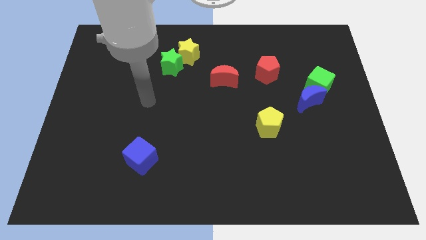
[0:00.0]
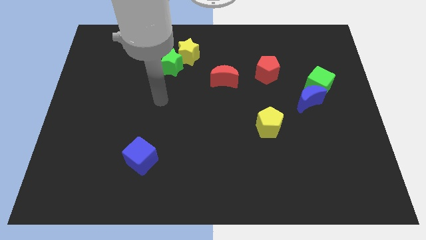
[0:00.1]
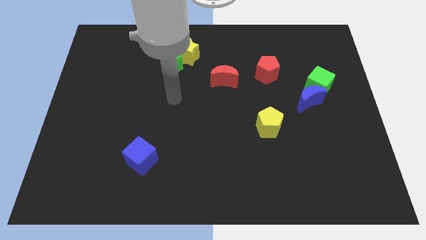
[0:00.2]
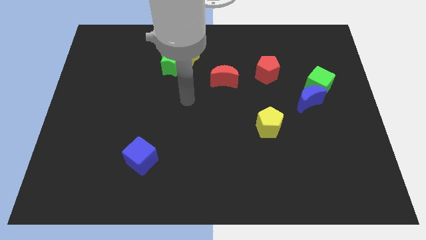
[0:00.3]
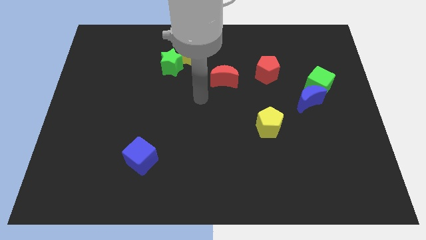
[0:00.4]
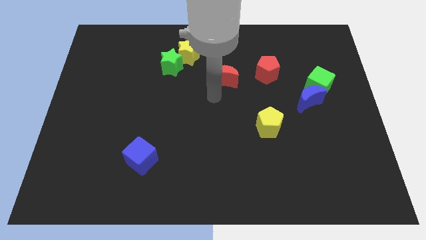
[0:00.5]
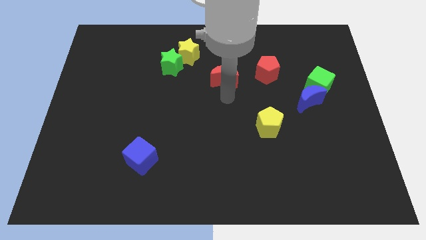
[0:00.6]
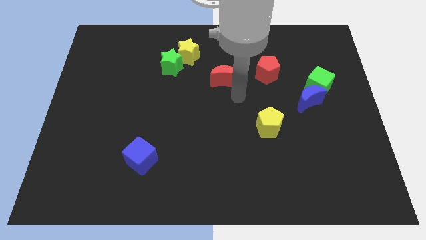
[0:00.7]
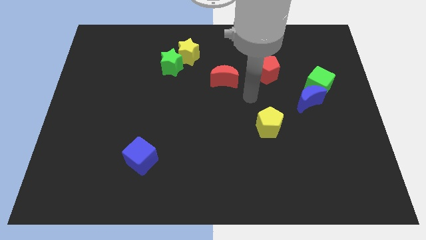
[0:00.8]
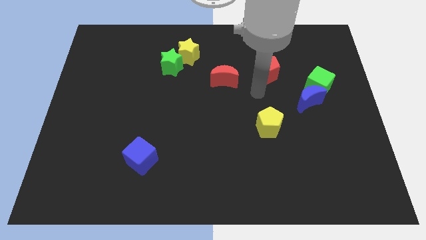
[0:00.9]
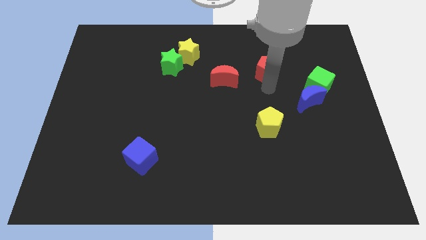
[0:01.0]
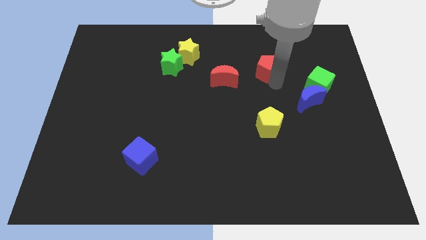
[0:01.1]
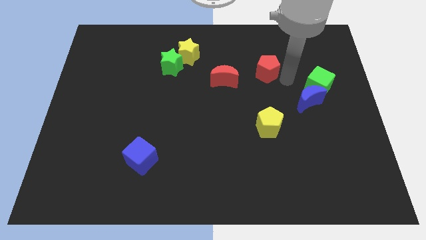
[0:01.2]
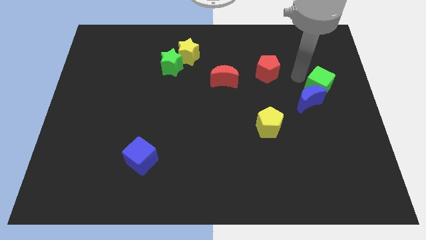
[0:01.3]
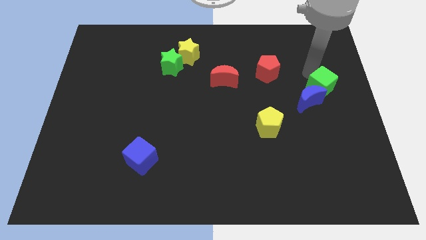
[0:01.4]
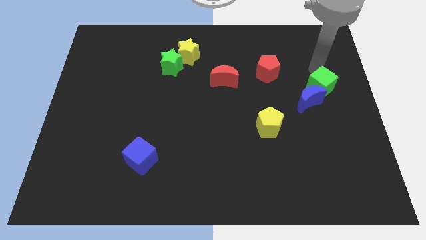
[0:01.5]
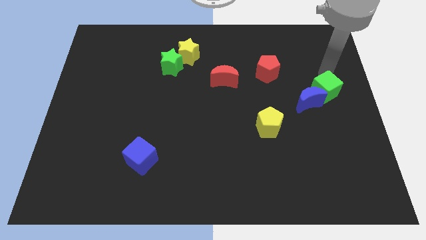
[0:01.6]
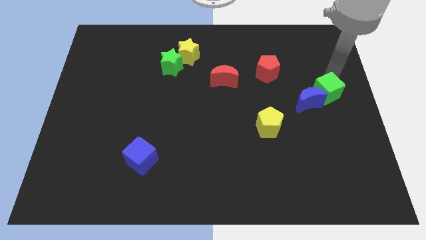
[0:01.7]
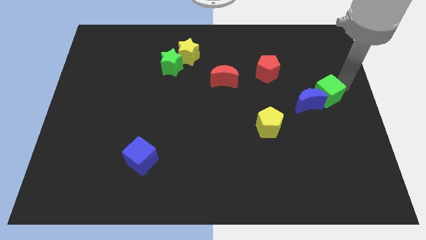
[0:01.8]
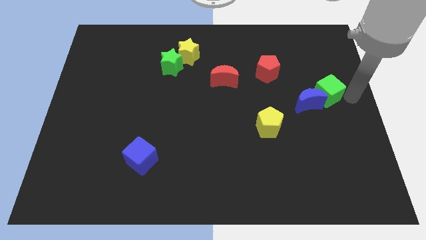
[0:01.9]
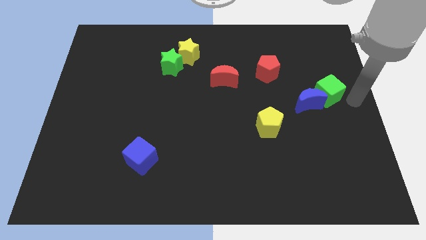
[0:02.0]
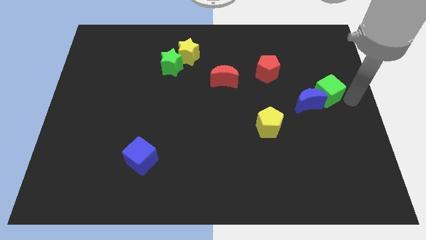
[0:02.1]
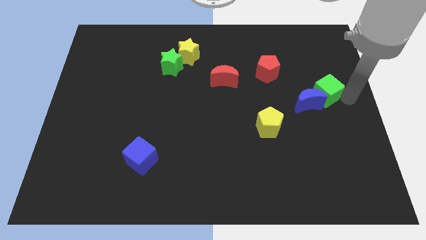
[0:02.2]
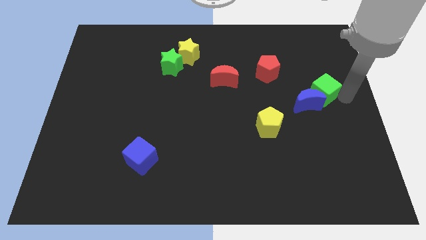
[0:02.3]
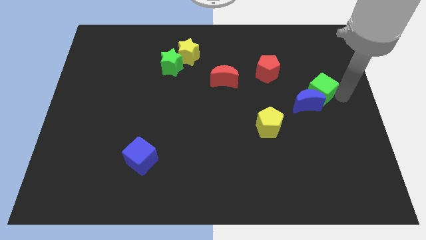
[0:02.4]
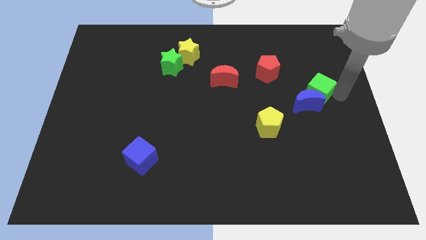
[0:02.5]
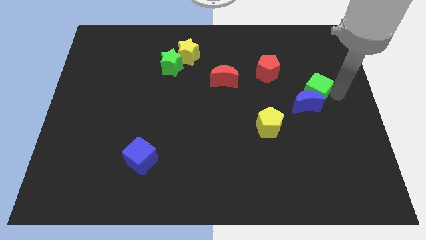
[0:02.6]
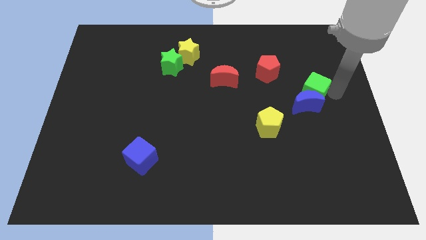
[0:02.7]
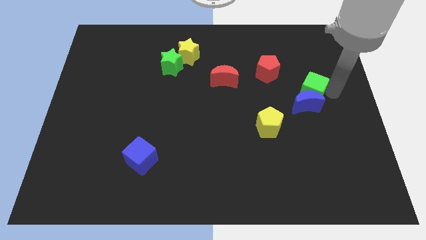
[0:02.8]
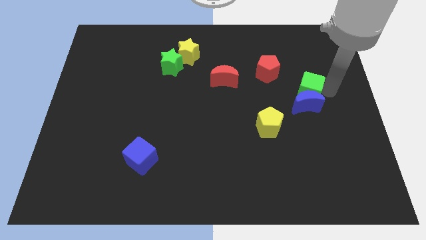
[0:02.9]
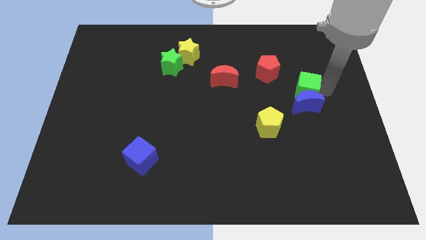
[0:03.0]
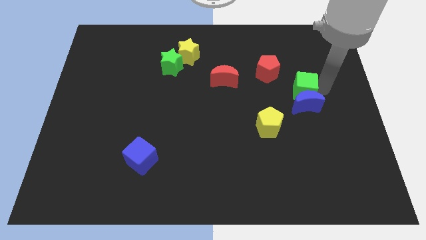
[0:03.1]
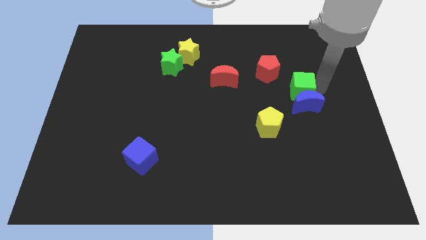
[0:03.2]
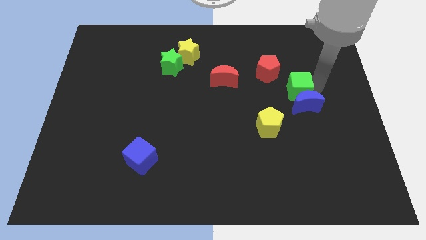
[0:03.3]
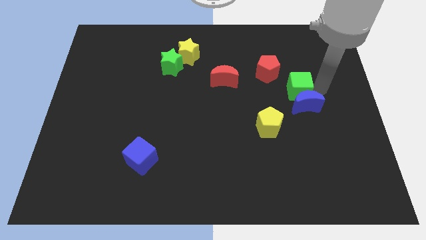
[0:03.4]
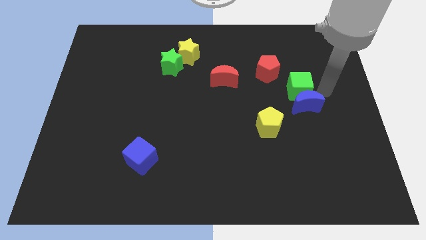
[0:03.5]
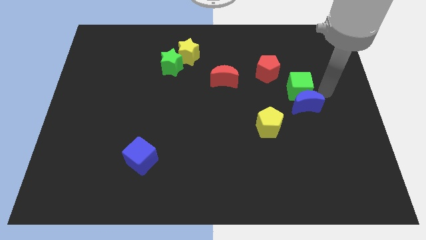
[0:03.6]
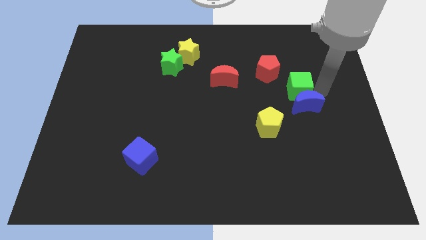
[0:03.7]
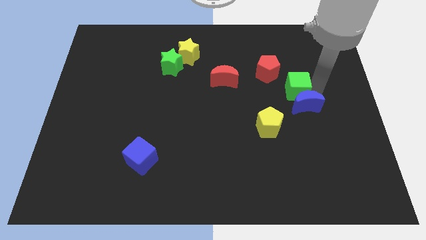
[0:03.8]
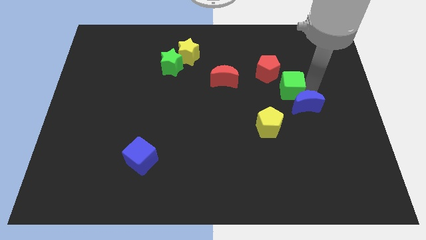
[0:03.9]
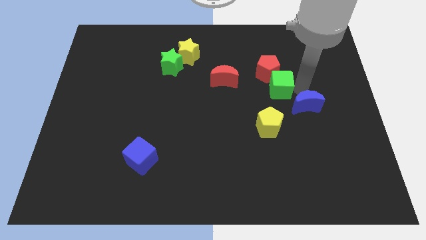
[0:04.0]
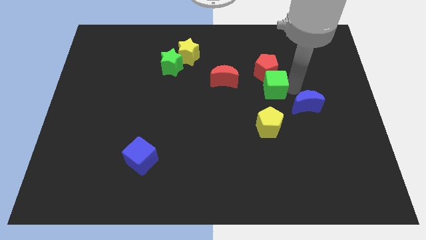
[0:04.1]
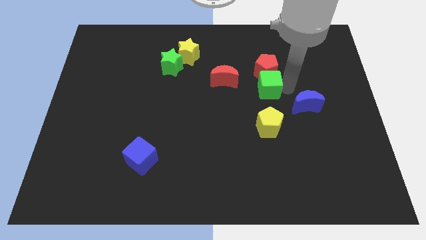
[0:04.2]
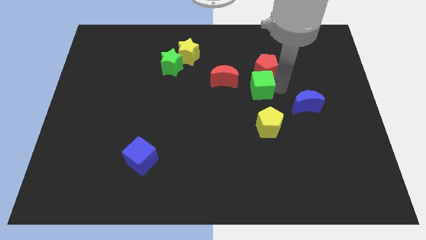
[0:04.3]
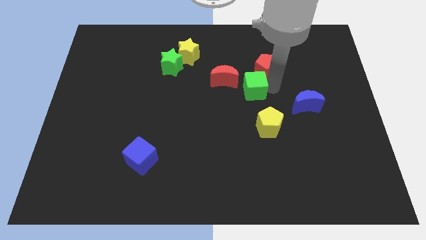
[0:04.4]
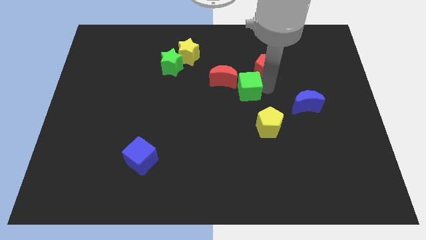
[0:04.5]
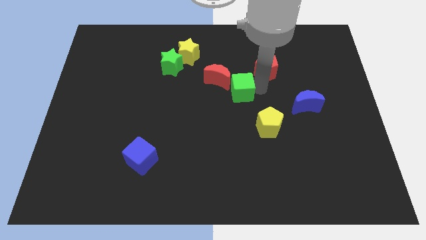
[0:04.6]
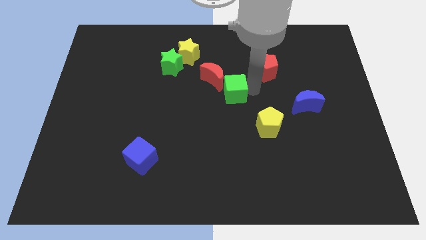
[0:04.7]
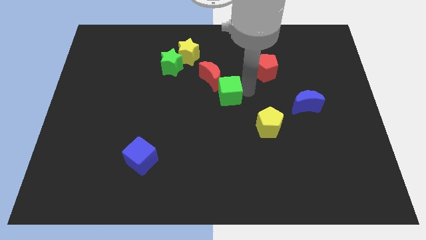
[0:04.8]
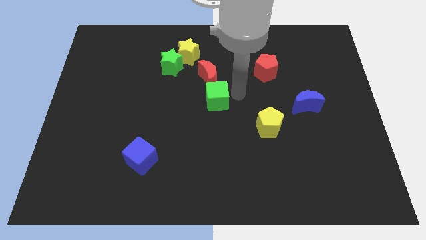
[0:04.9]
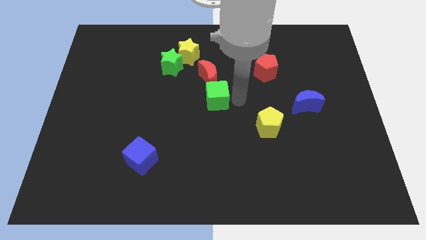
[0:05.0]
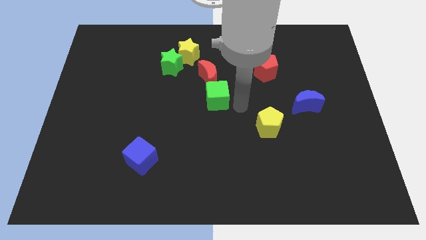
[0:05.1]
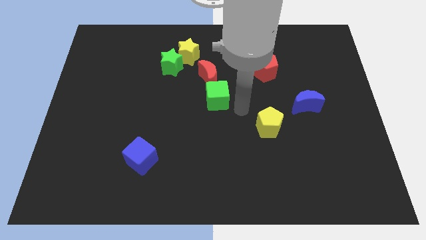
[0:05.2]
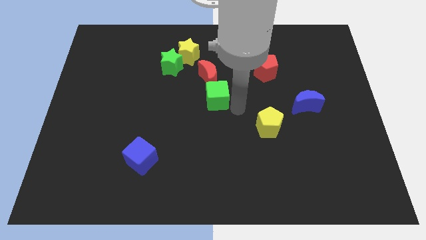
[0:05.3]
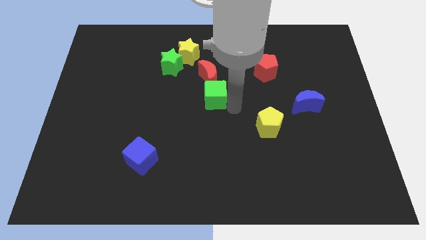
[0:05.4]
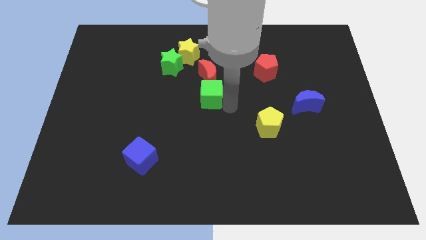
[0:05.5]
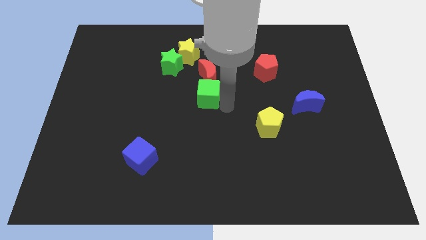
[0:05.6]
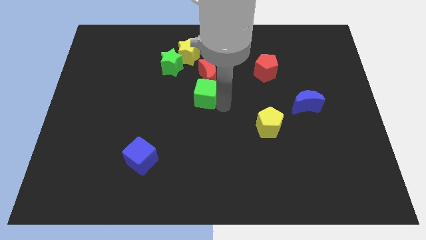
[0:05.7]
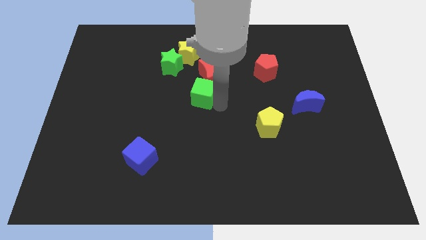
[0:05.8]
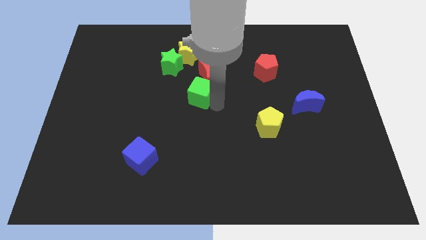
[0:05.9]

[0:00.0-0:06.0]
put the green cube to the bottom of the yellow star
